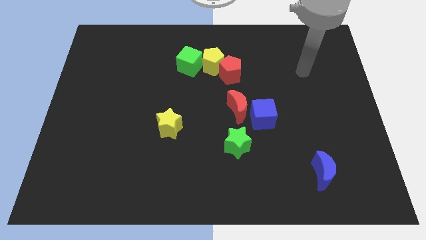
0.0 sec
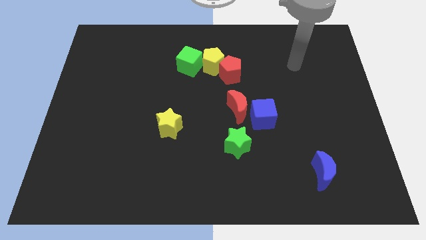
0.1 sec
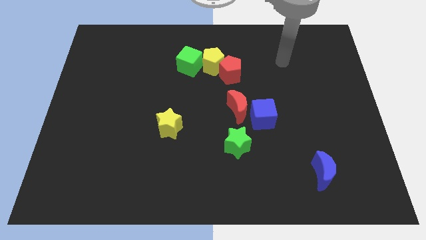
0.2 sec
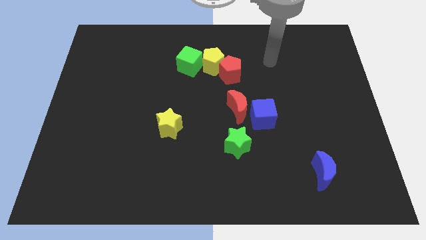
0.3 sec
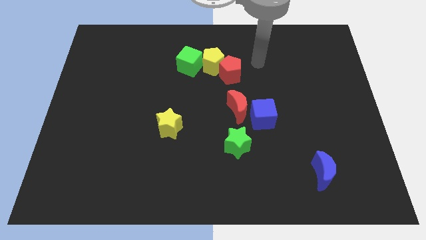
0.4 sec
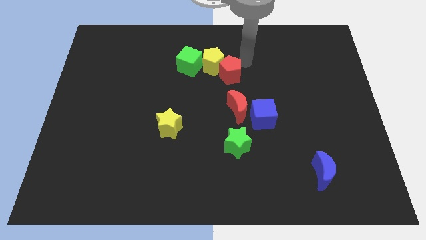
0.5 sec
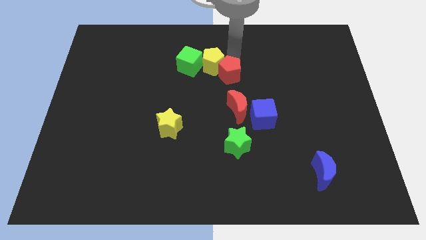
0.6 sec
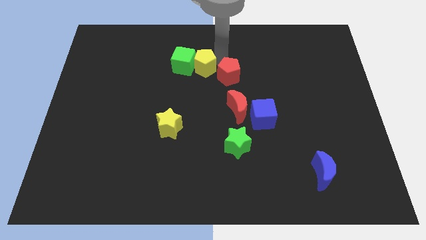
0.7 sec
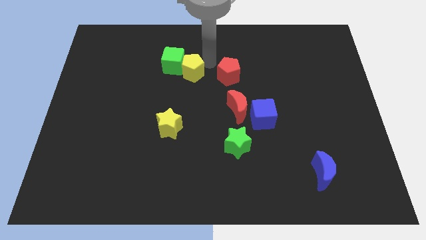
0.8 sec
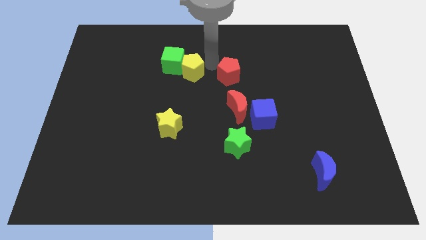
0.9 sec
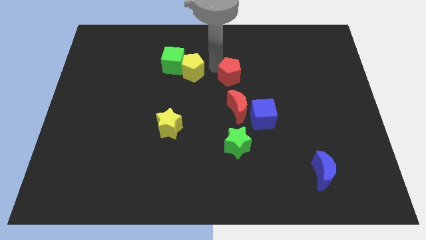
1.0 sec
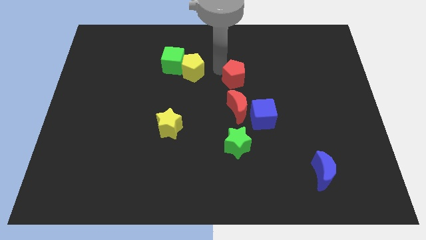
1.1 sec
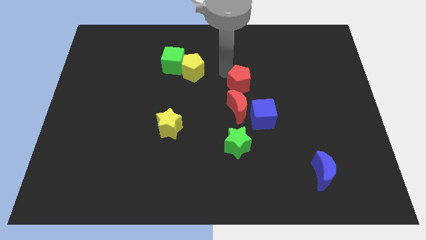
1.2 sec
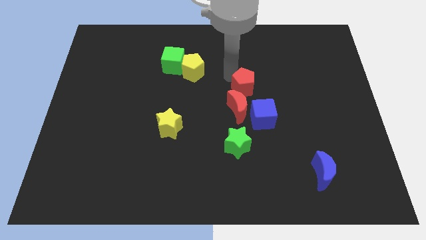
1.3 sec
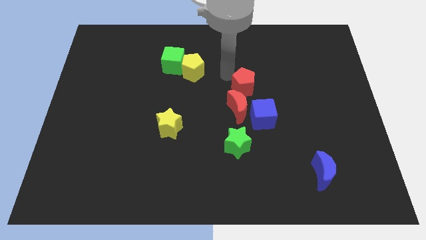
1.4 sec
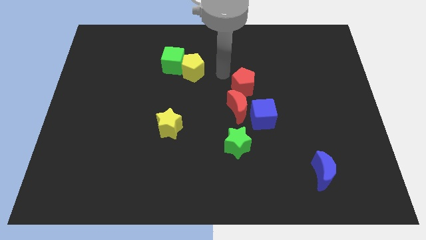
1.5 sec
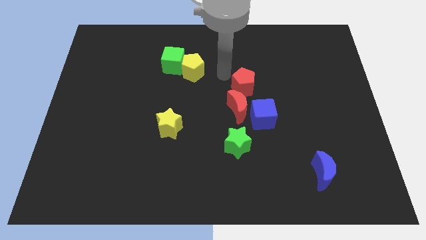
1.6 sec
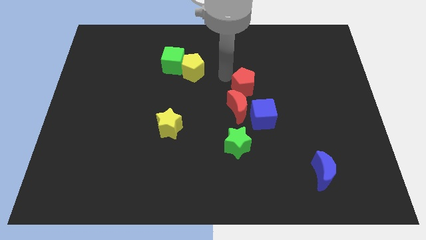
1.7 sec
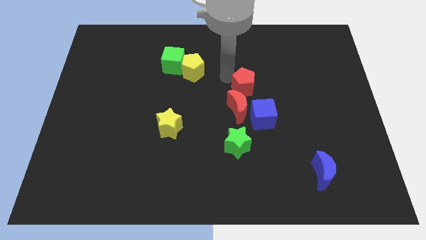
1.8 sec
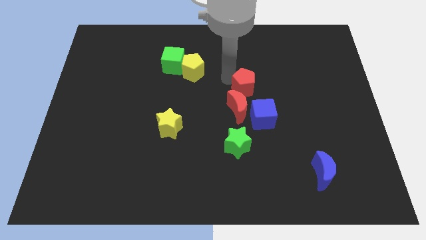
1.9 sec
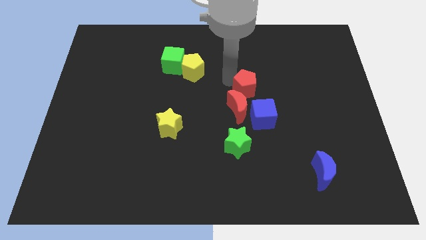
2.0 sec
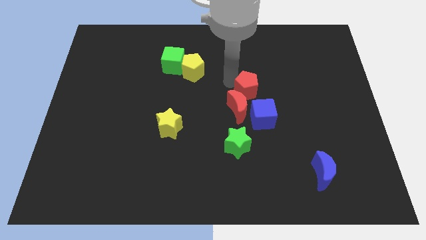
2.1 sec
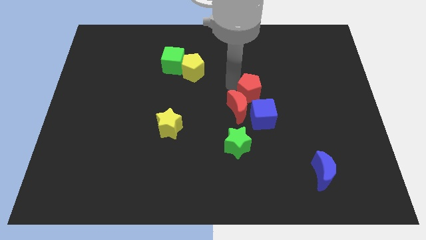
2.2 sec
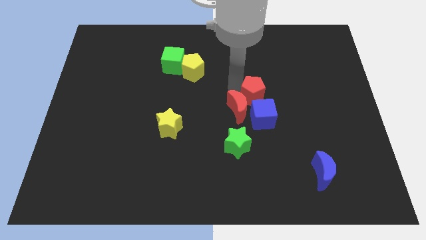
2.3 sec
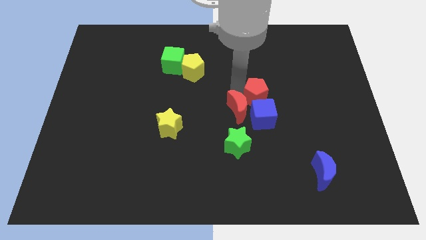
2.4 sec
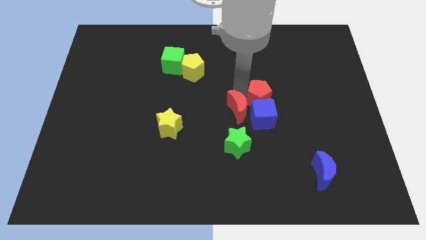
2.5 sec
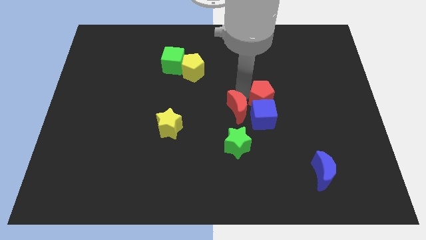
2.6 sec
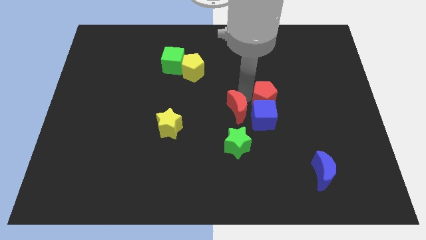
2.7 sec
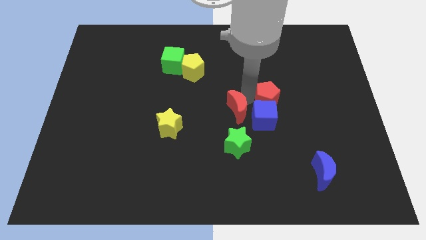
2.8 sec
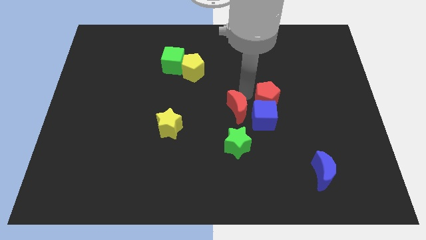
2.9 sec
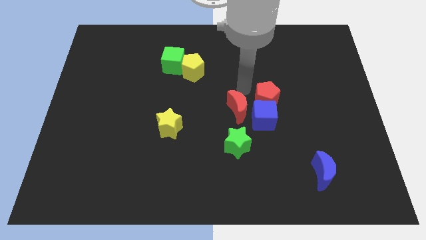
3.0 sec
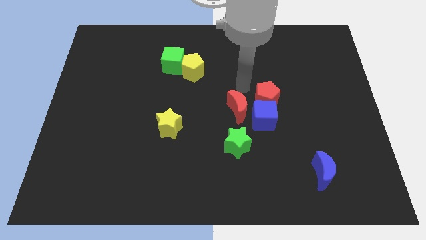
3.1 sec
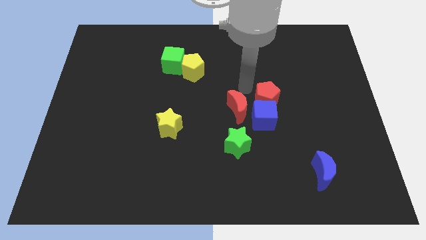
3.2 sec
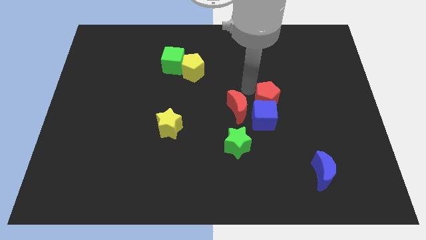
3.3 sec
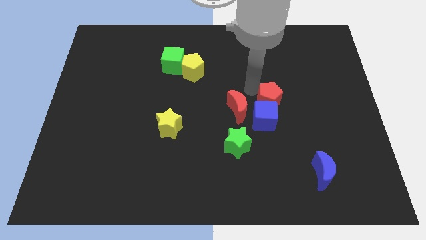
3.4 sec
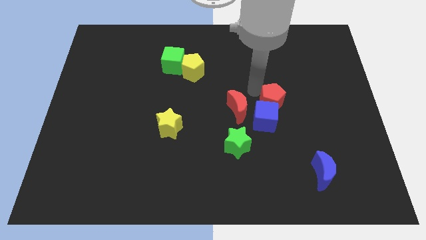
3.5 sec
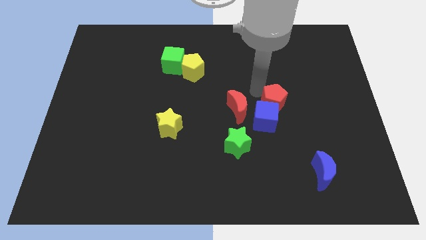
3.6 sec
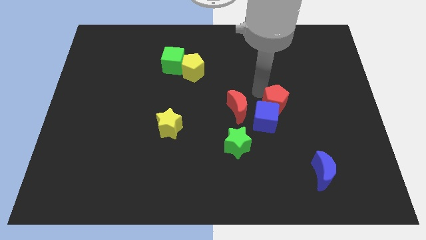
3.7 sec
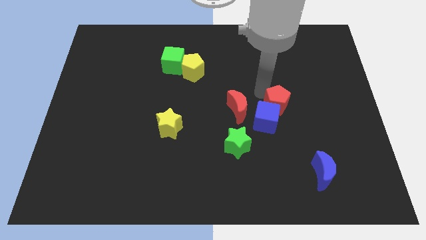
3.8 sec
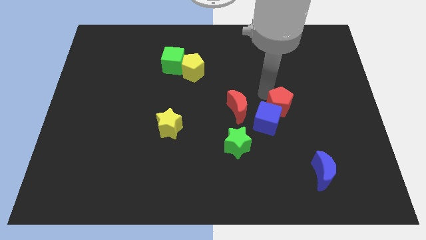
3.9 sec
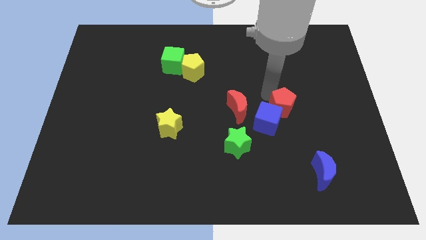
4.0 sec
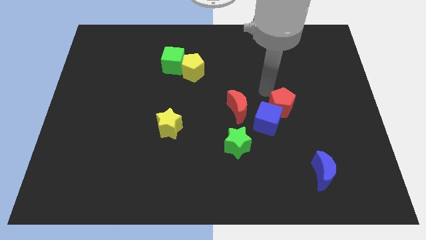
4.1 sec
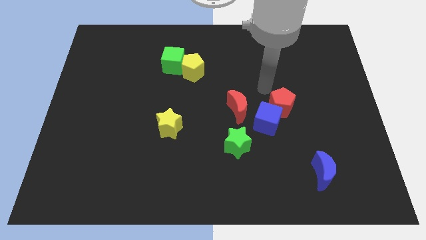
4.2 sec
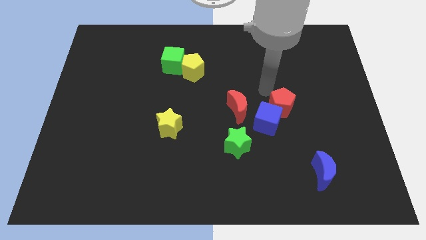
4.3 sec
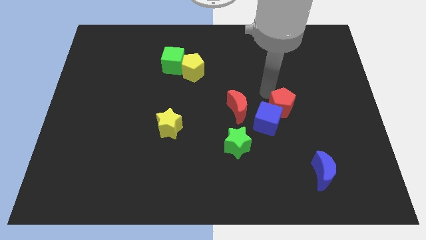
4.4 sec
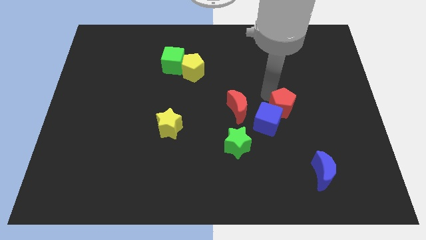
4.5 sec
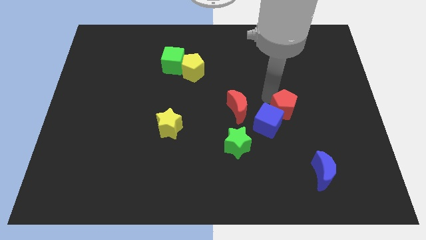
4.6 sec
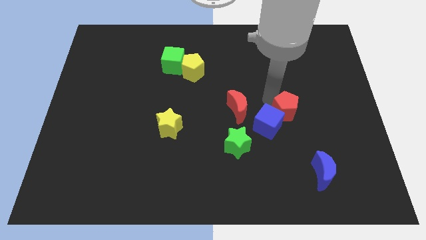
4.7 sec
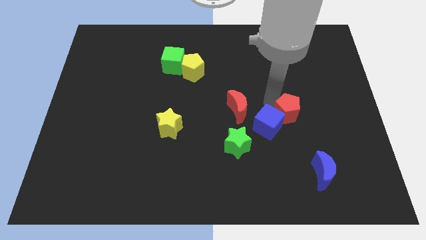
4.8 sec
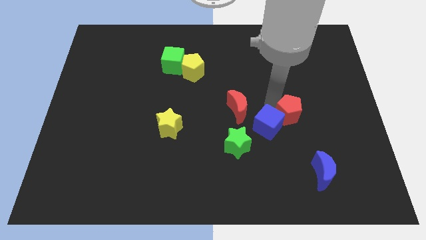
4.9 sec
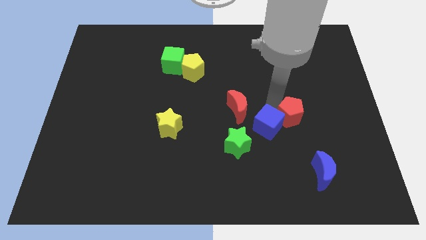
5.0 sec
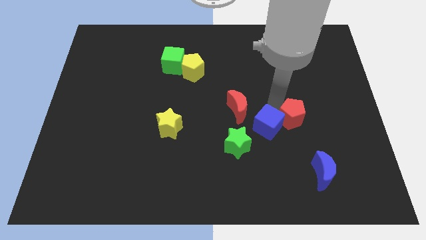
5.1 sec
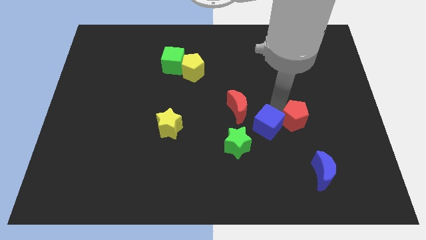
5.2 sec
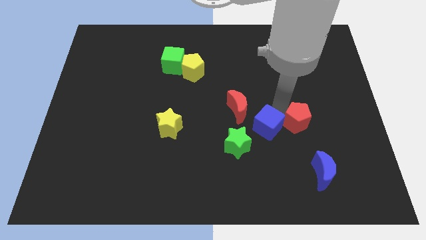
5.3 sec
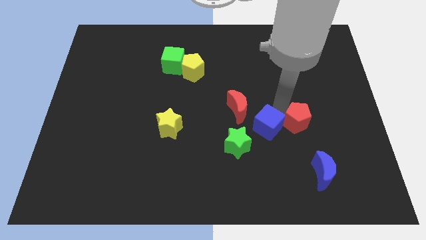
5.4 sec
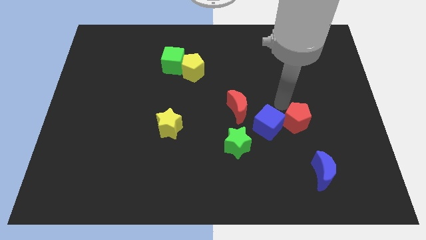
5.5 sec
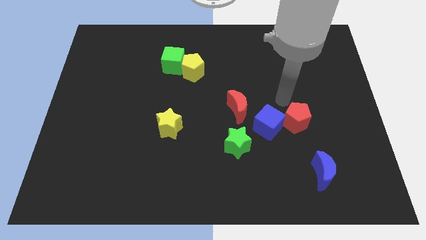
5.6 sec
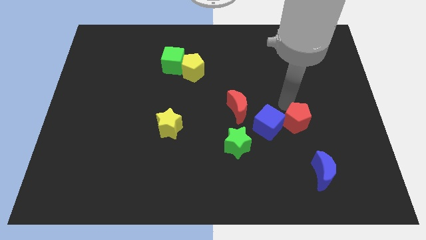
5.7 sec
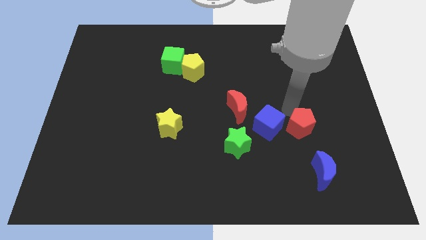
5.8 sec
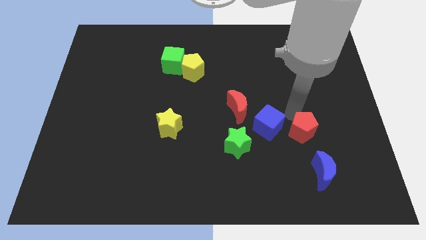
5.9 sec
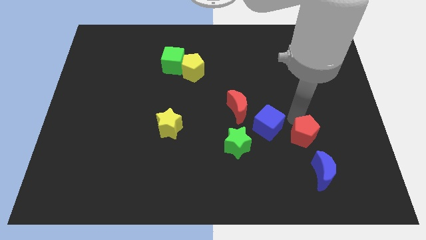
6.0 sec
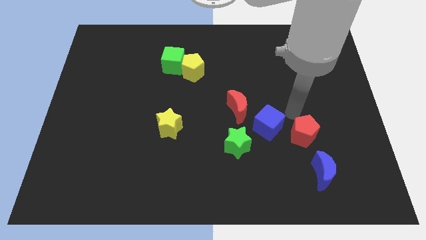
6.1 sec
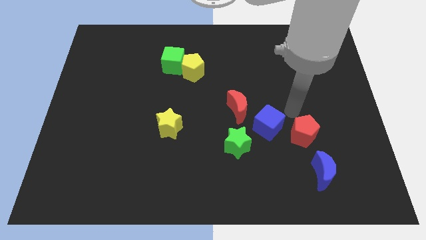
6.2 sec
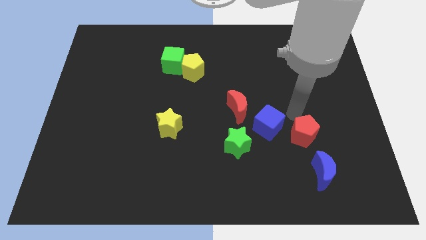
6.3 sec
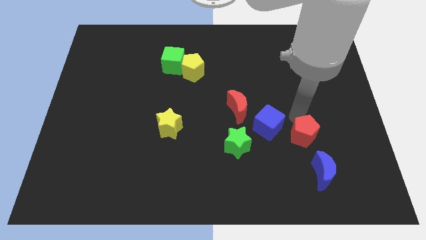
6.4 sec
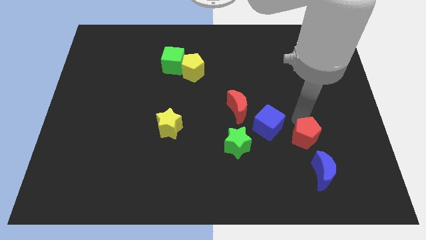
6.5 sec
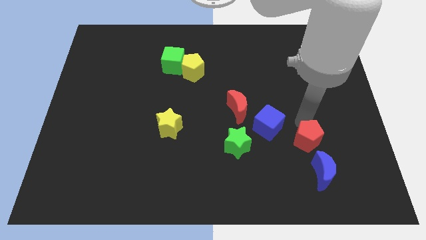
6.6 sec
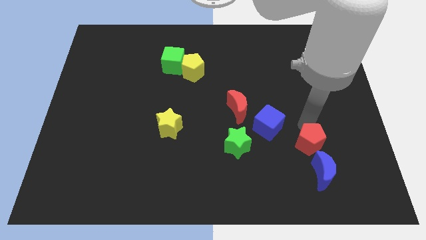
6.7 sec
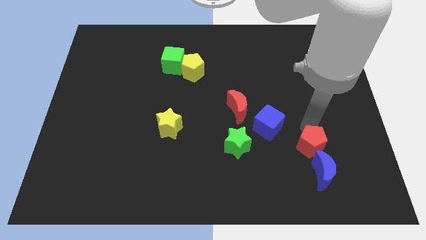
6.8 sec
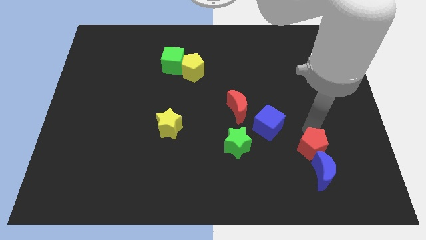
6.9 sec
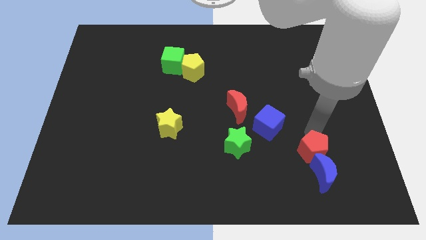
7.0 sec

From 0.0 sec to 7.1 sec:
push the red pentagon towards the blue moon
